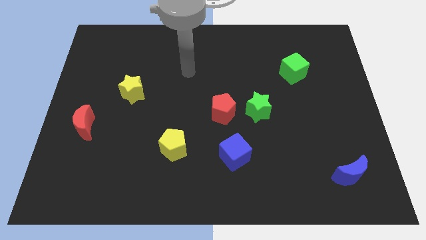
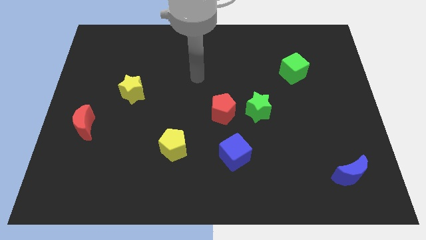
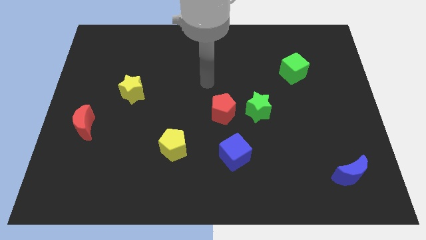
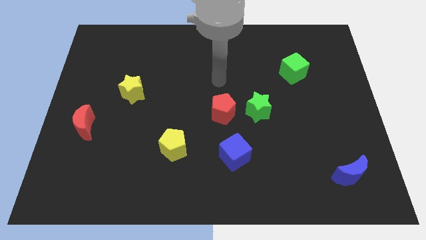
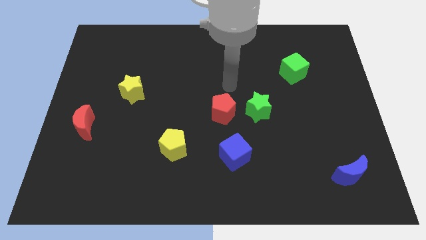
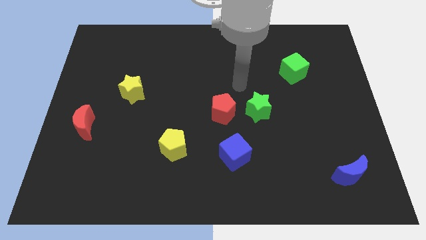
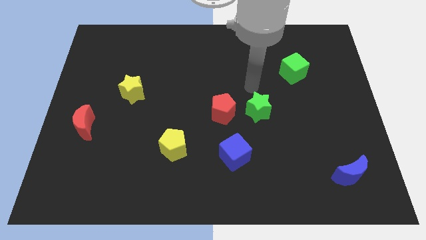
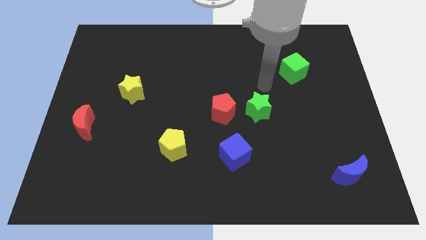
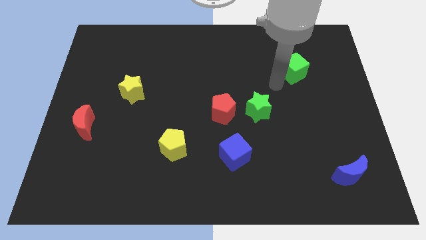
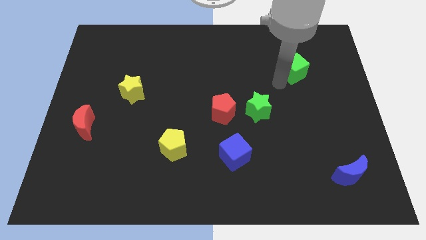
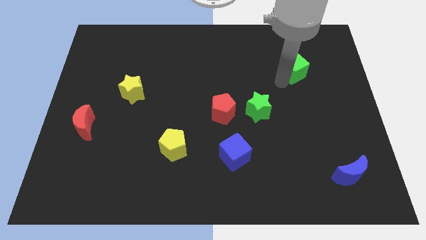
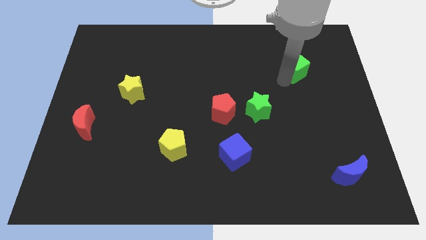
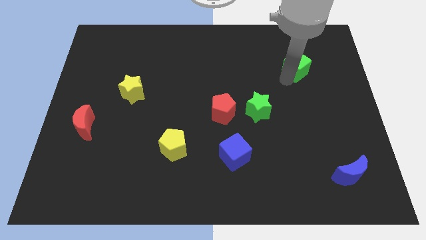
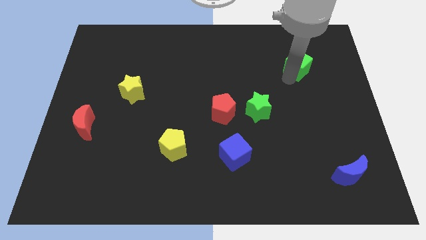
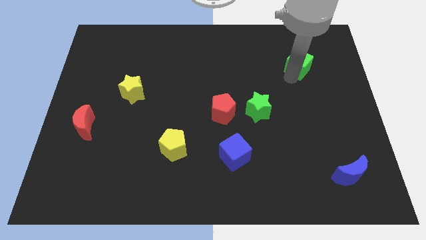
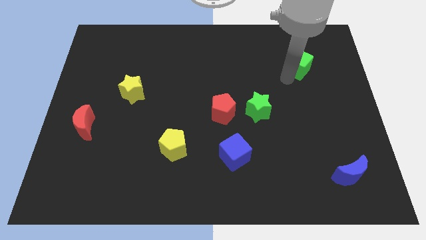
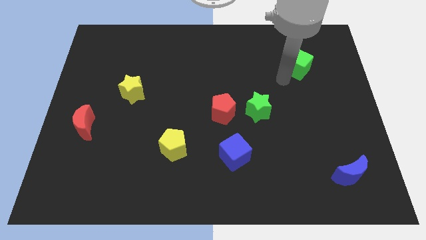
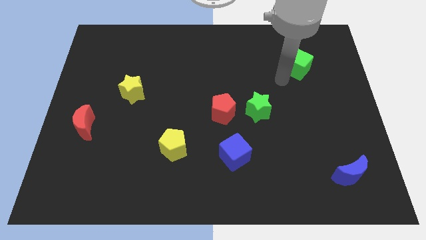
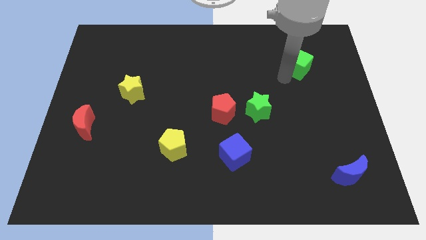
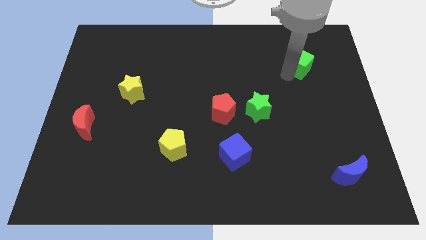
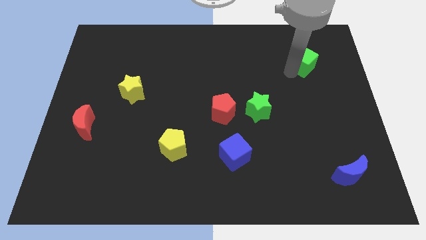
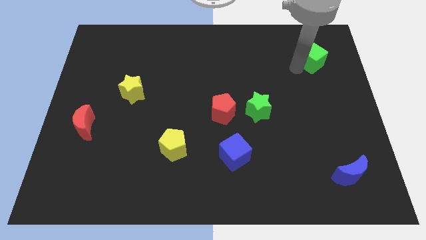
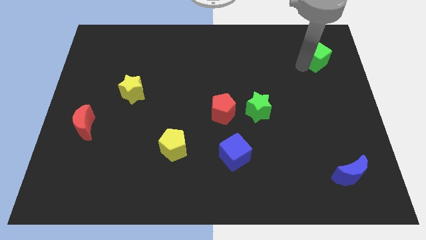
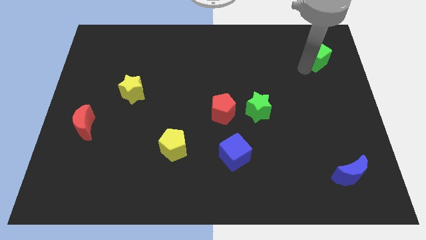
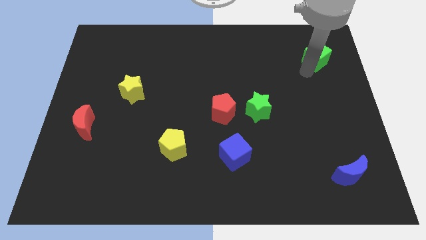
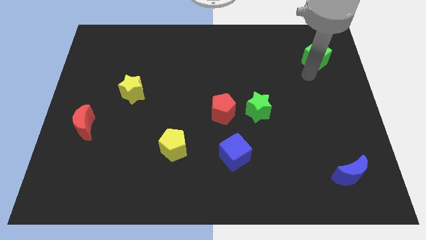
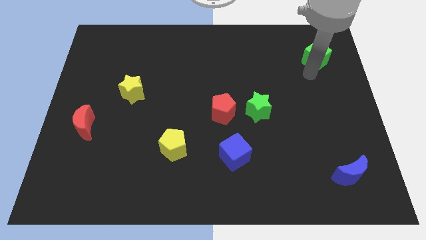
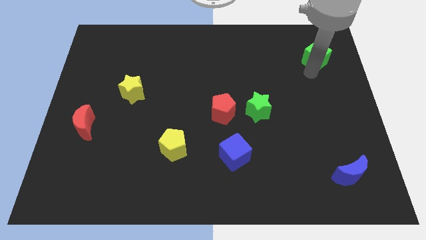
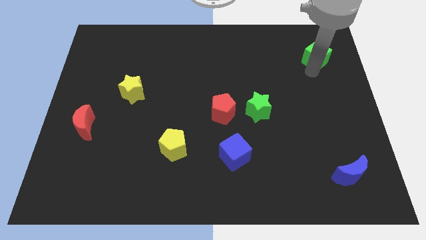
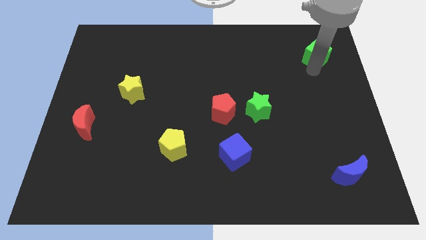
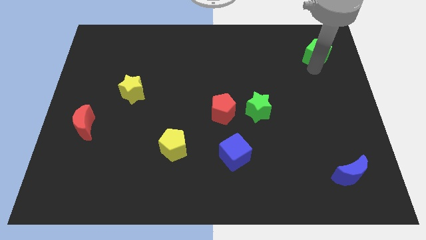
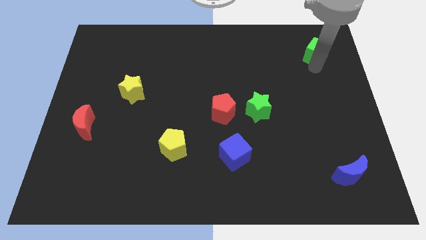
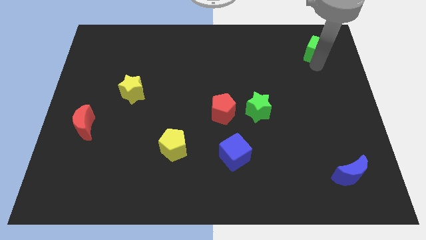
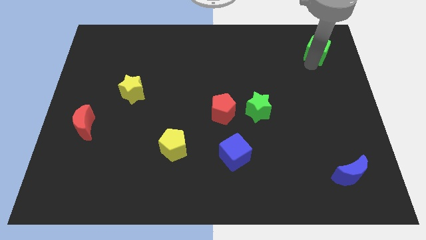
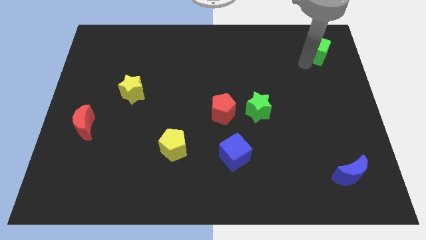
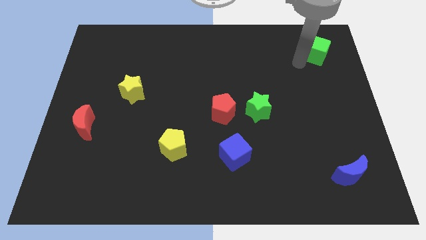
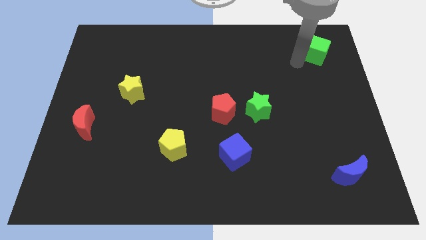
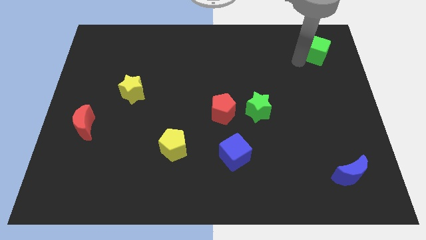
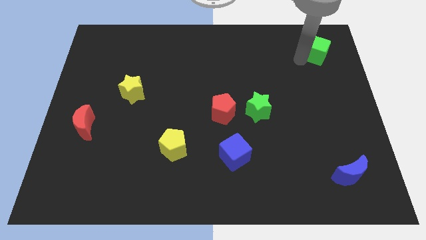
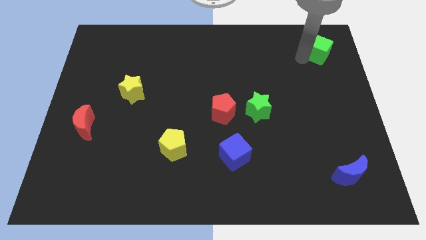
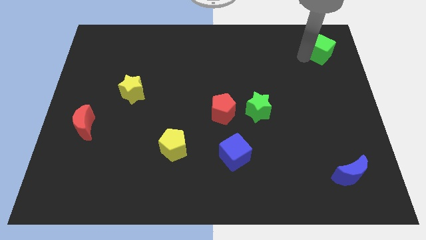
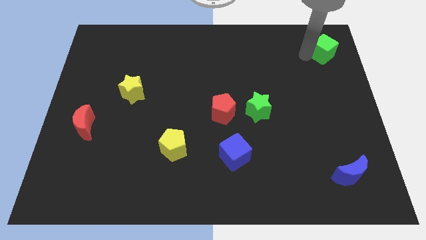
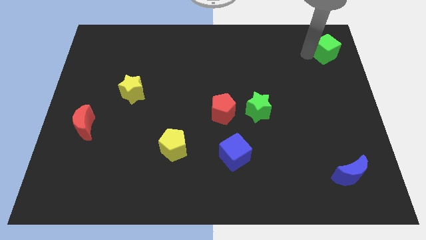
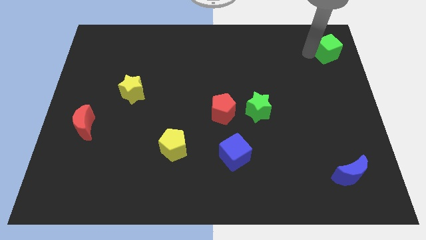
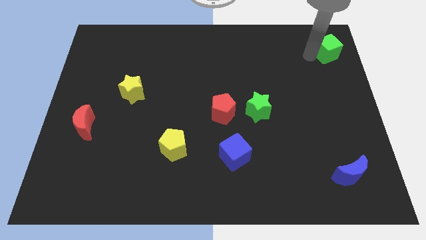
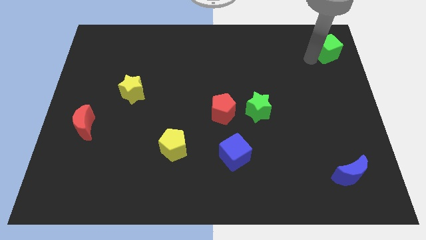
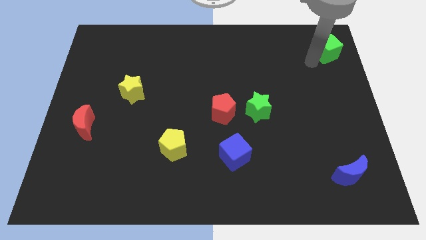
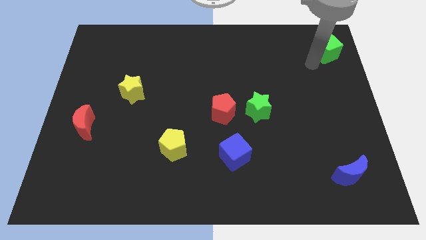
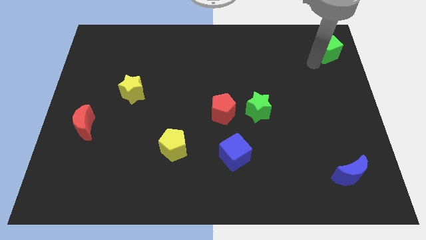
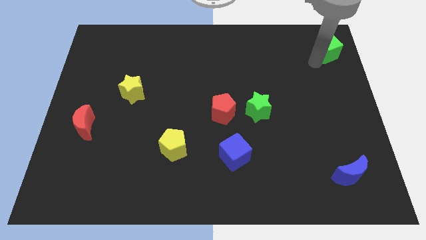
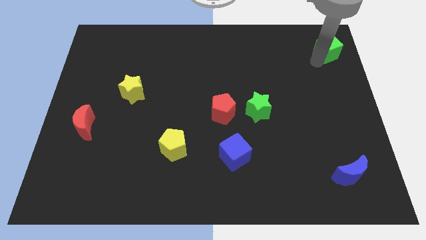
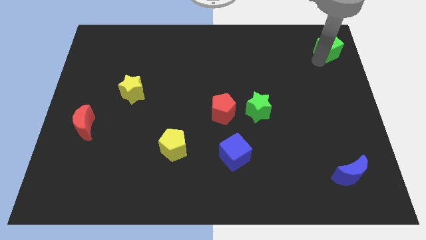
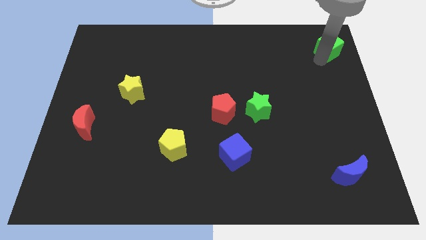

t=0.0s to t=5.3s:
put the green cube to the upper right corner

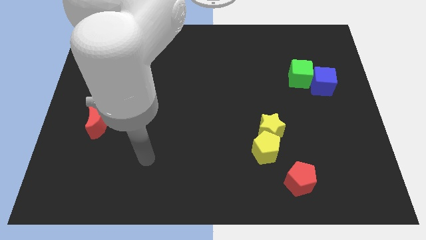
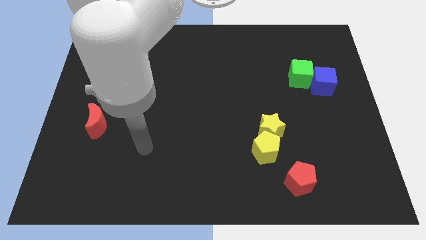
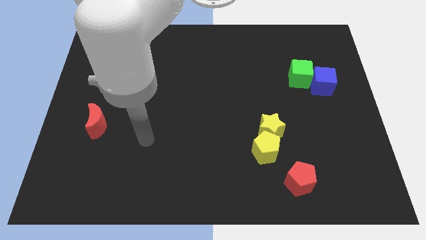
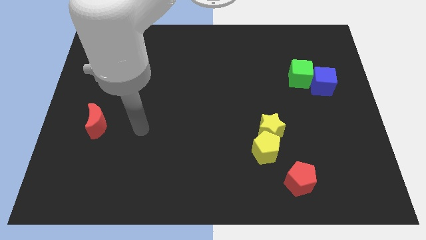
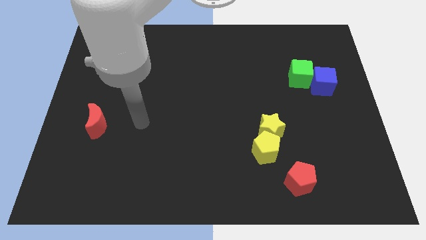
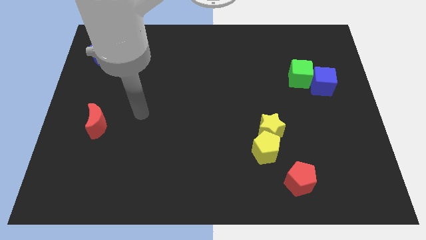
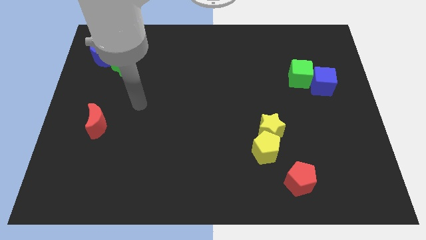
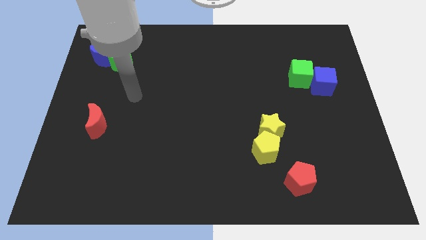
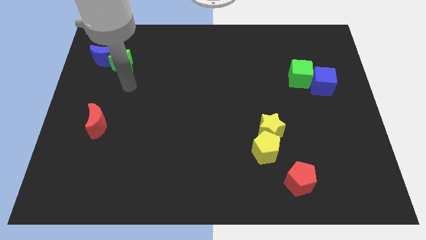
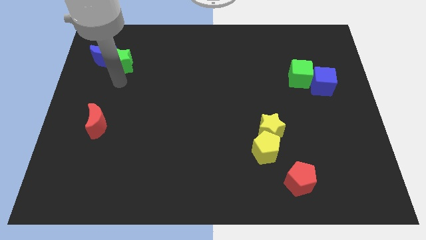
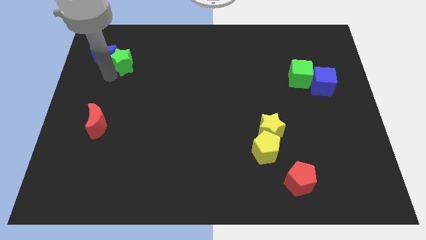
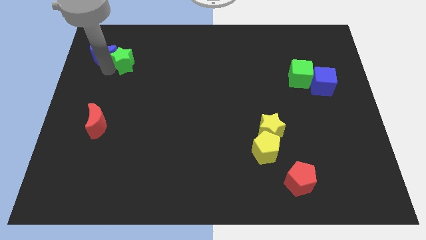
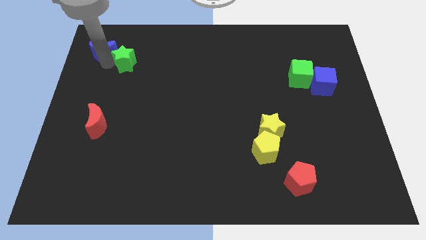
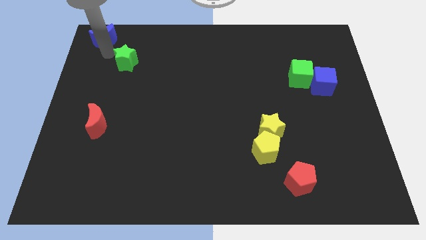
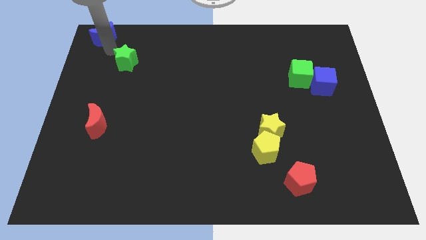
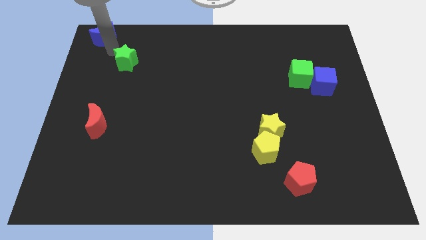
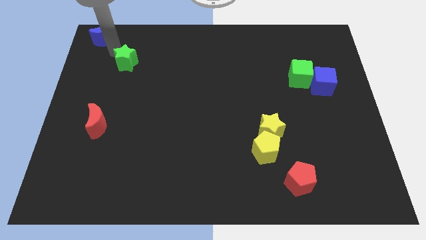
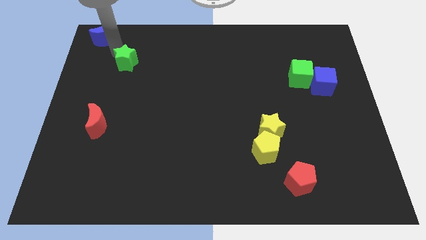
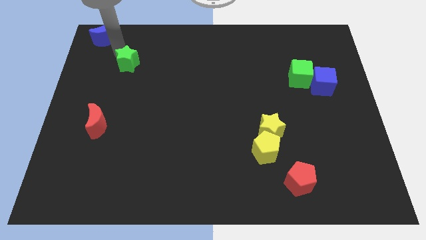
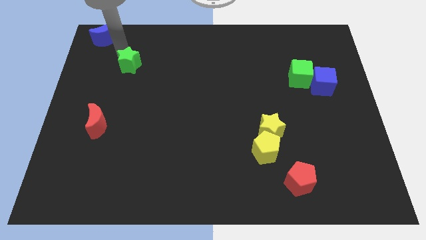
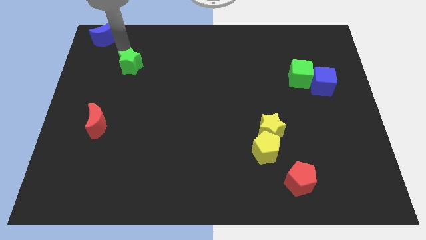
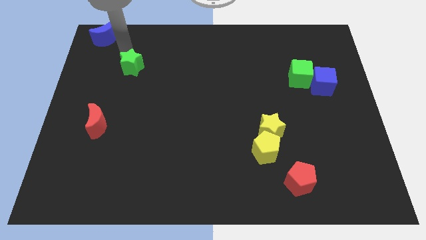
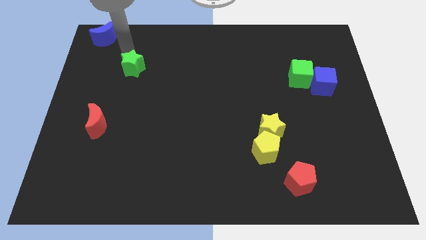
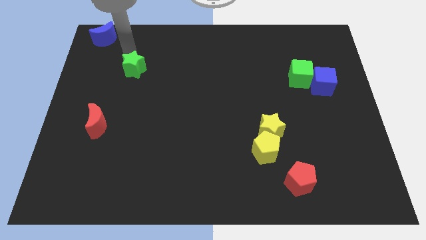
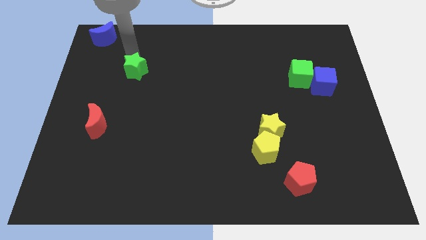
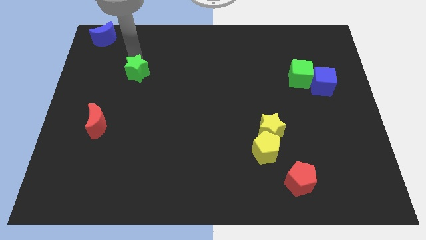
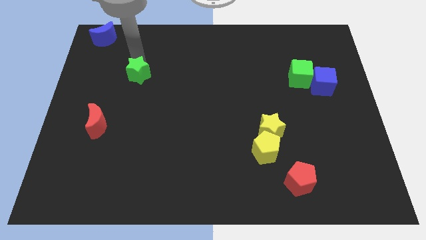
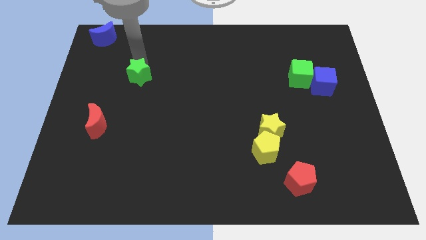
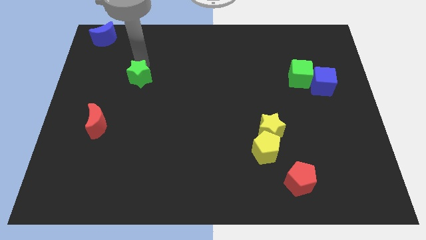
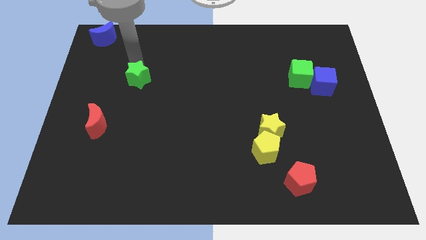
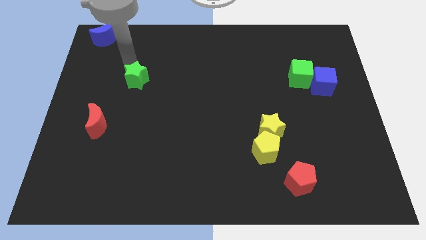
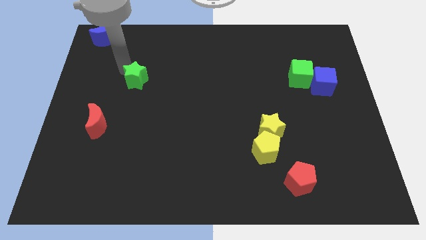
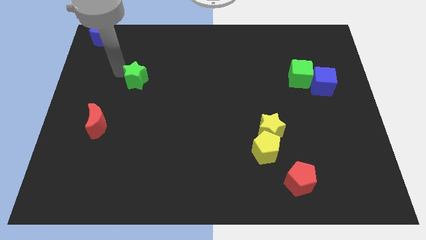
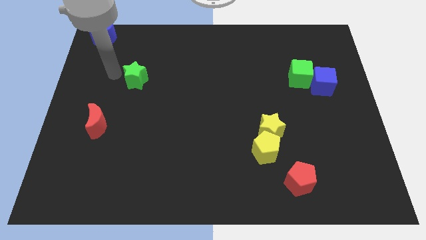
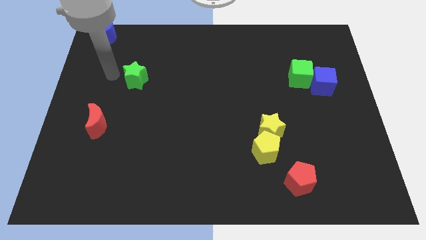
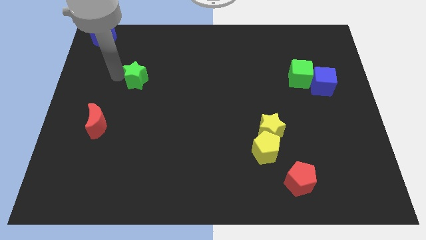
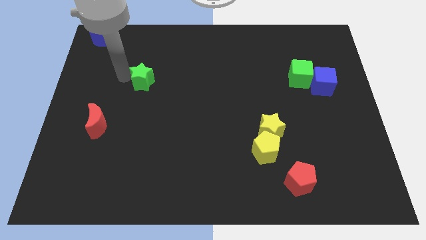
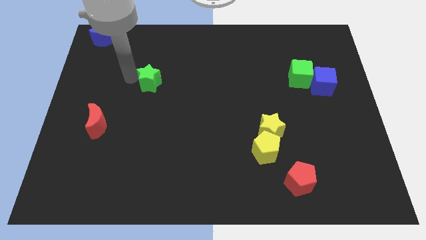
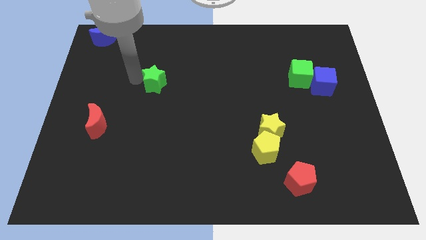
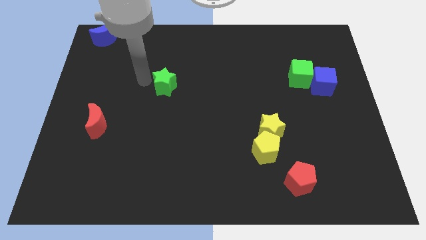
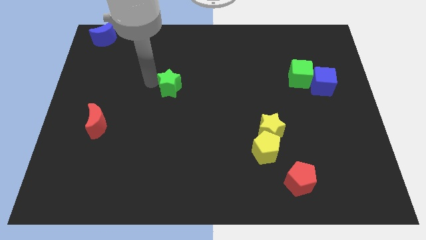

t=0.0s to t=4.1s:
put the green star to the middle of the board
